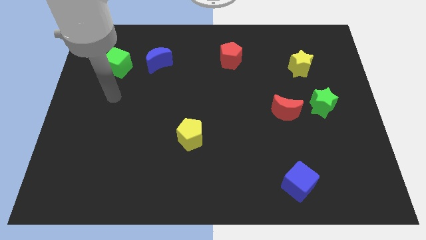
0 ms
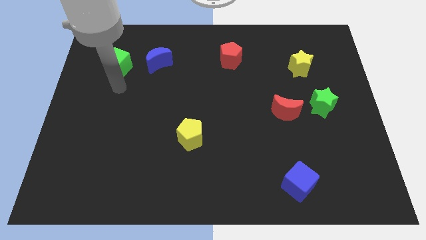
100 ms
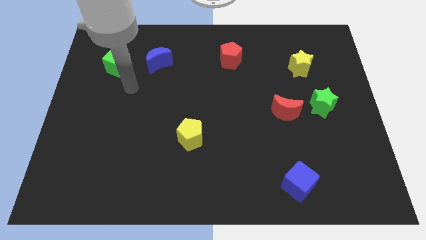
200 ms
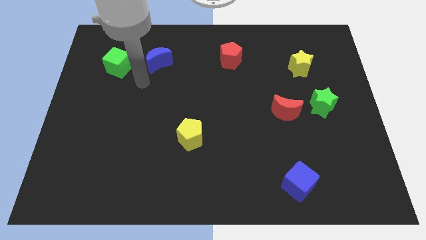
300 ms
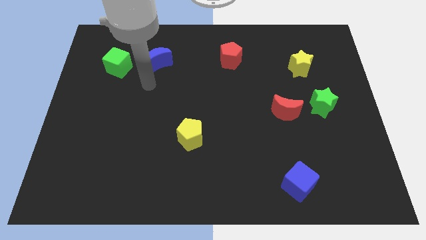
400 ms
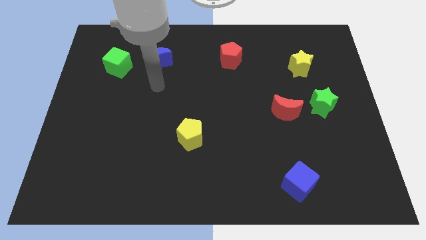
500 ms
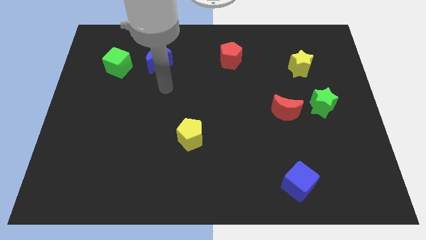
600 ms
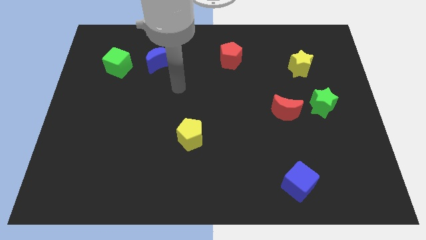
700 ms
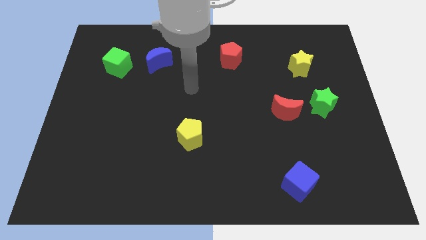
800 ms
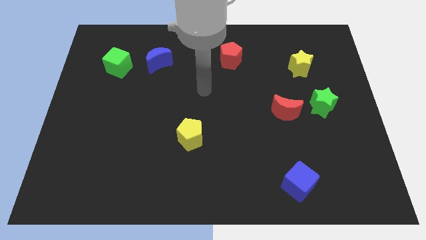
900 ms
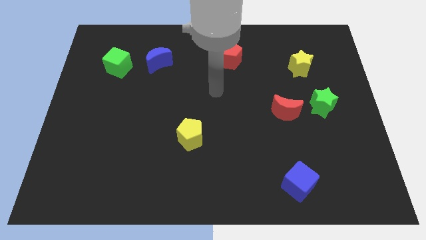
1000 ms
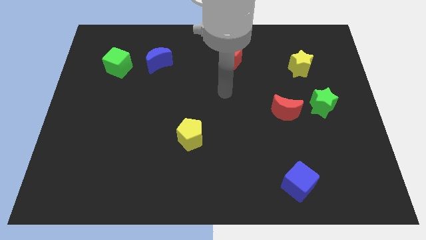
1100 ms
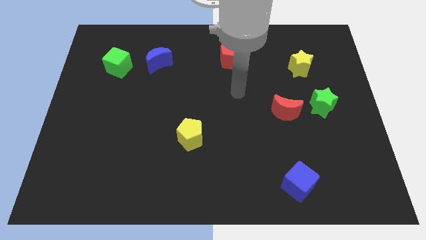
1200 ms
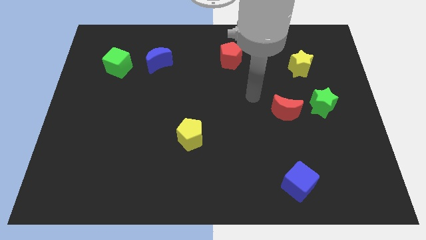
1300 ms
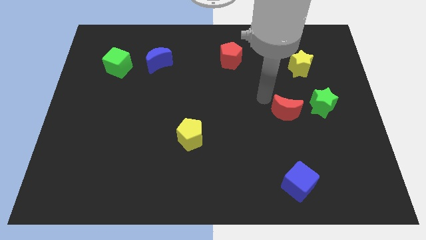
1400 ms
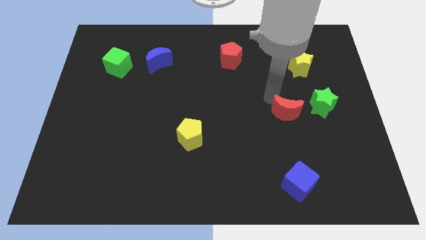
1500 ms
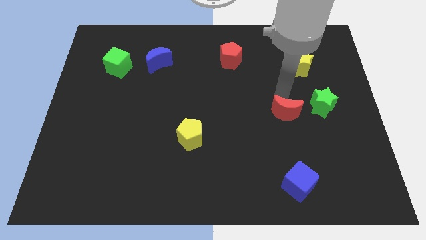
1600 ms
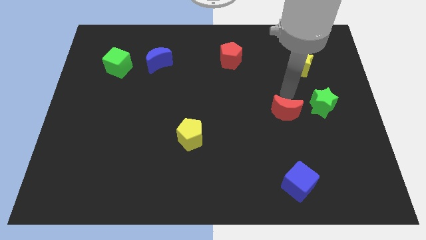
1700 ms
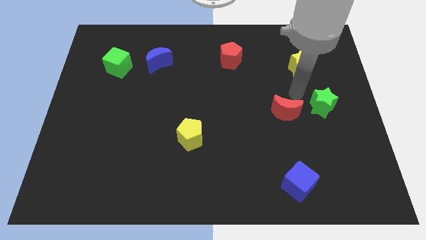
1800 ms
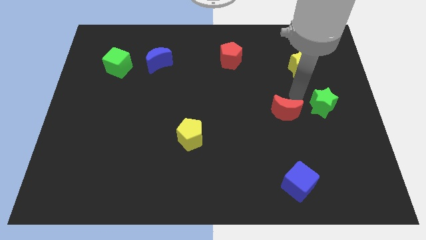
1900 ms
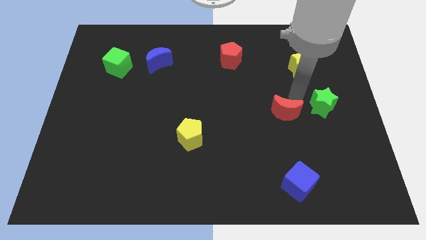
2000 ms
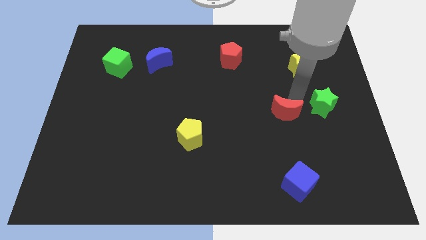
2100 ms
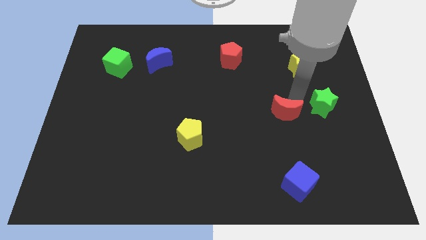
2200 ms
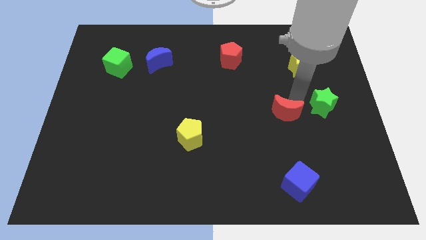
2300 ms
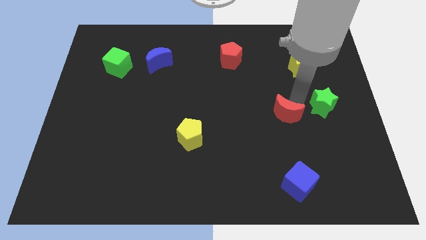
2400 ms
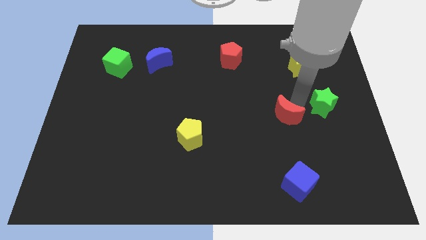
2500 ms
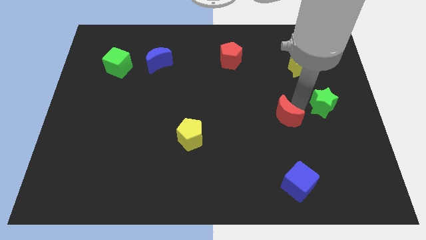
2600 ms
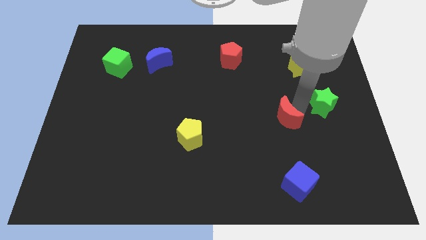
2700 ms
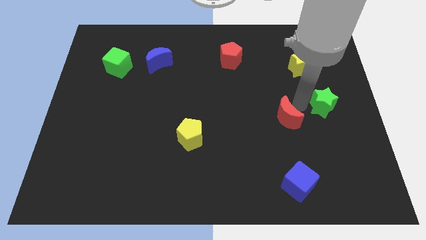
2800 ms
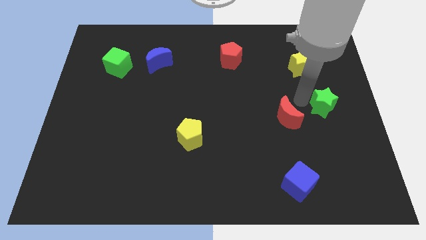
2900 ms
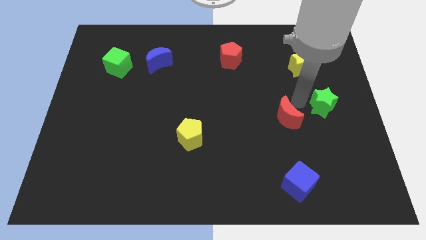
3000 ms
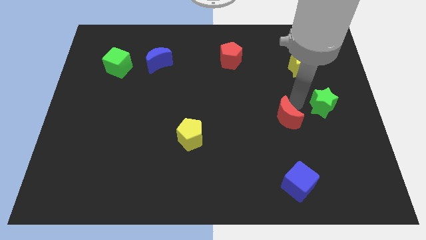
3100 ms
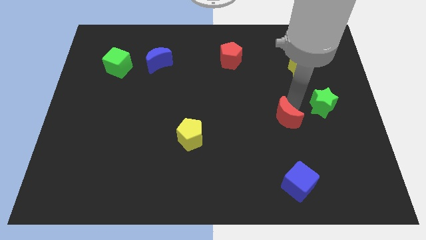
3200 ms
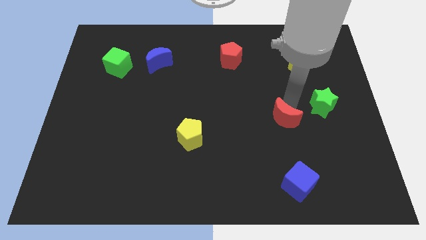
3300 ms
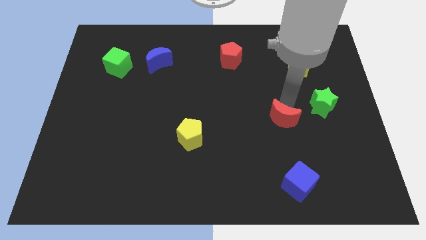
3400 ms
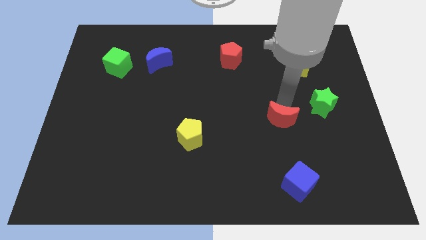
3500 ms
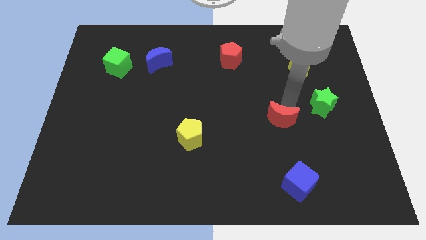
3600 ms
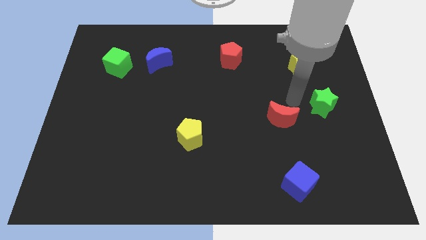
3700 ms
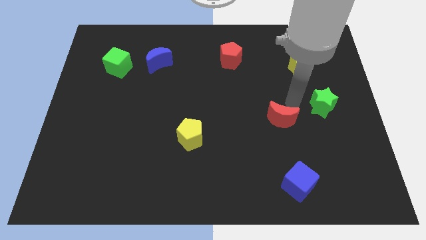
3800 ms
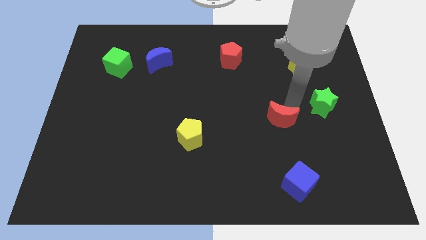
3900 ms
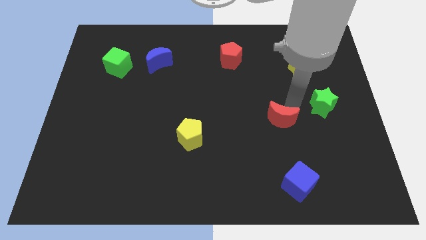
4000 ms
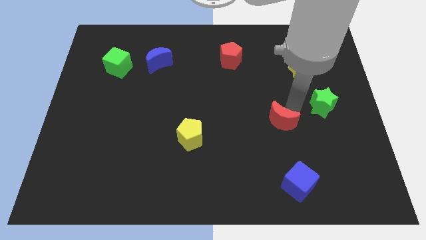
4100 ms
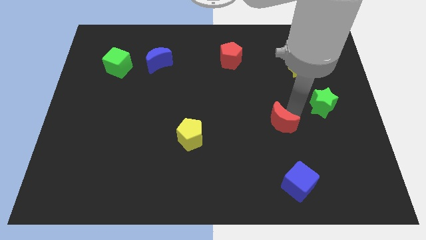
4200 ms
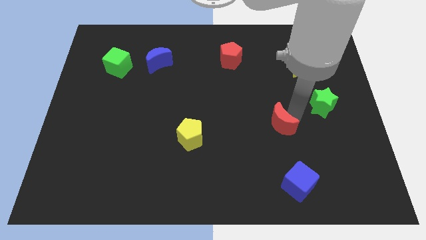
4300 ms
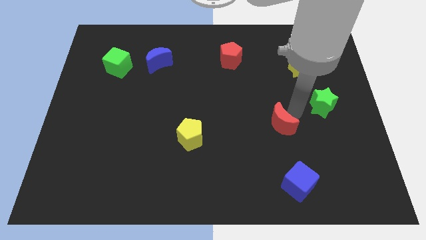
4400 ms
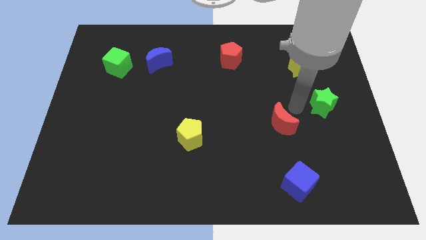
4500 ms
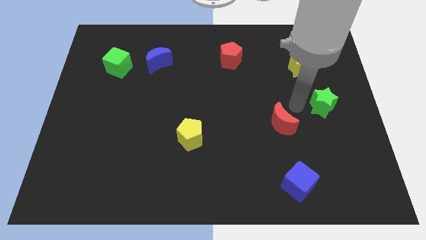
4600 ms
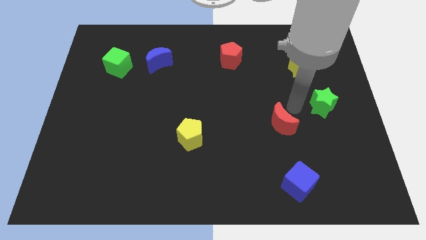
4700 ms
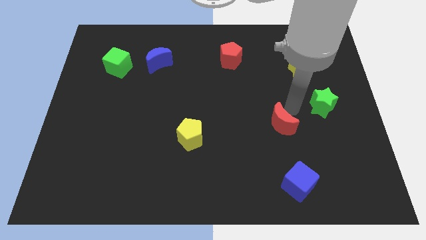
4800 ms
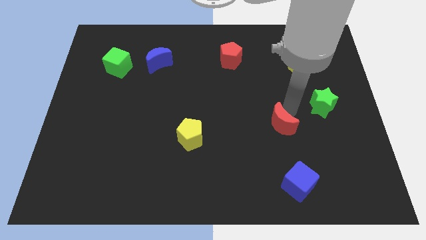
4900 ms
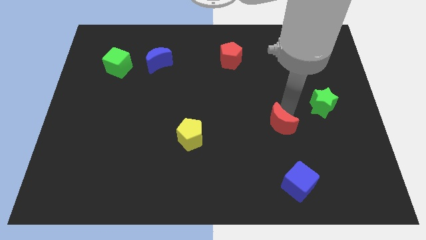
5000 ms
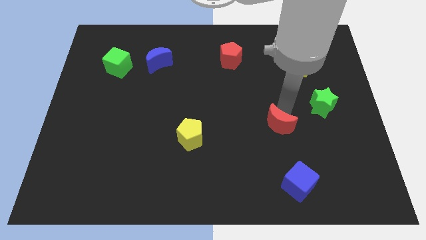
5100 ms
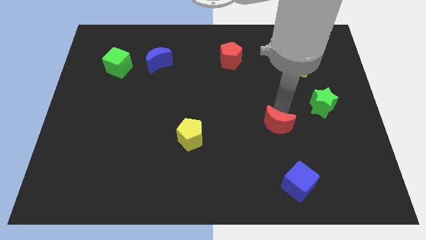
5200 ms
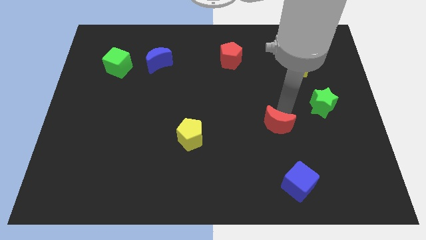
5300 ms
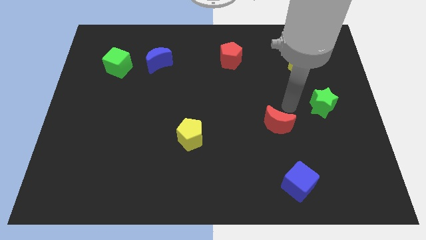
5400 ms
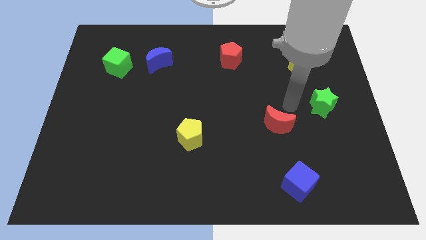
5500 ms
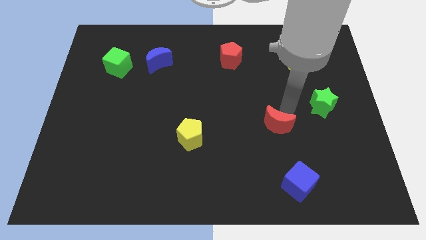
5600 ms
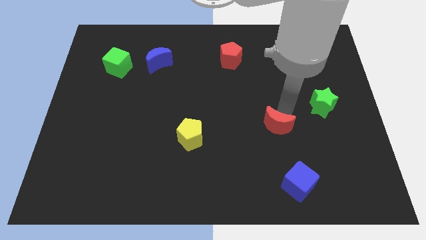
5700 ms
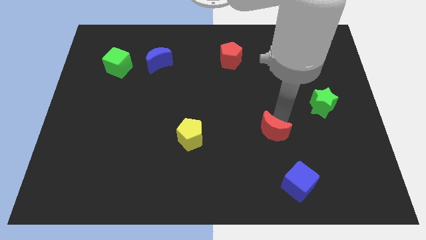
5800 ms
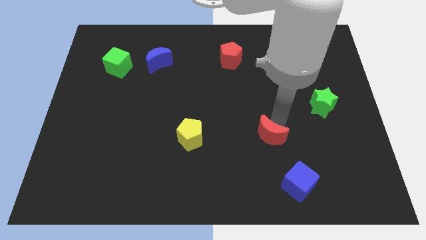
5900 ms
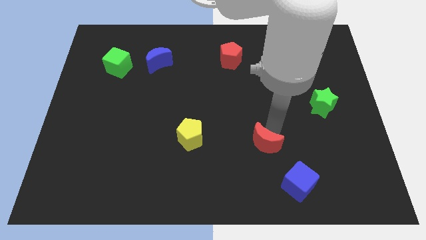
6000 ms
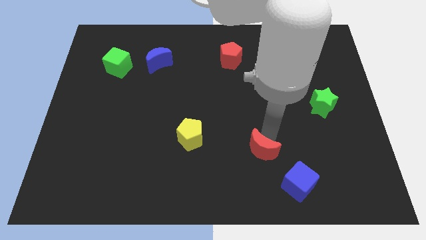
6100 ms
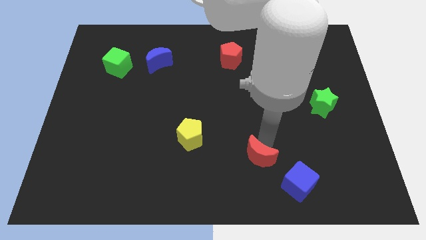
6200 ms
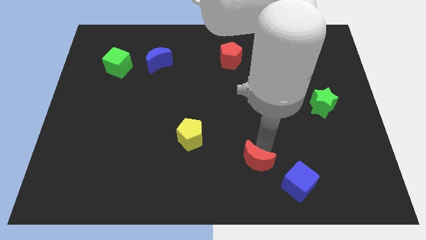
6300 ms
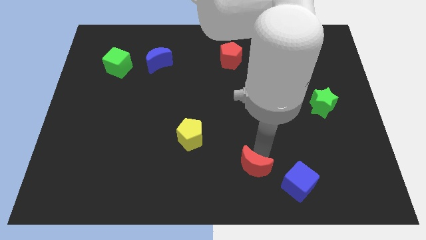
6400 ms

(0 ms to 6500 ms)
move the red moon to the bottom

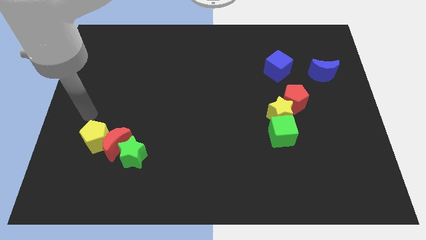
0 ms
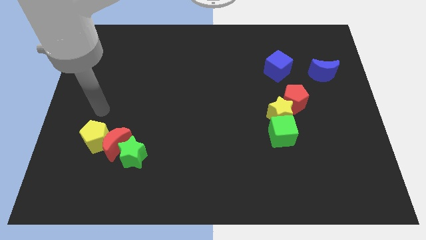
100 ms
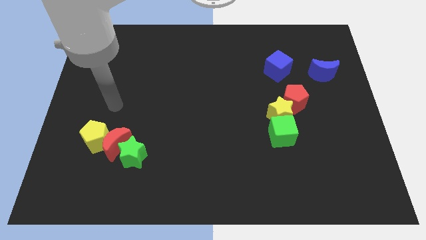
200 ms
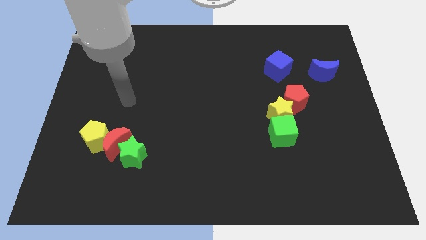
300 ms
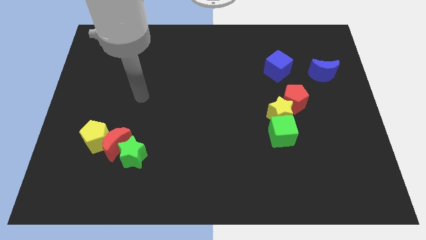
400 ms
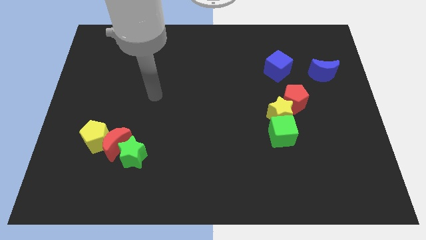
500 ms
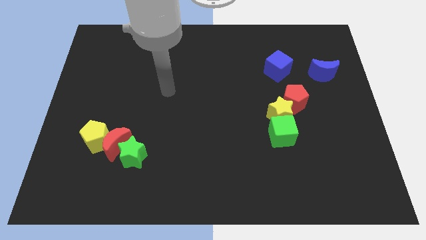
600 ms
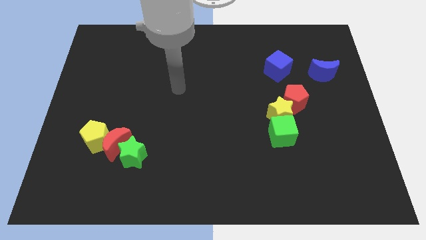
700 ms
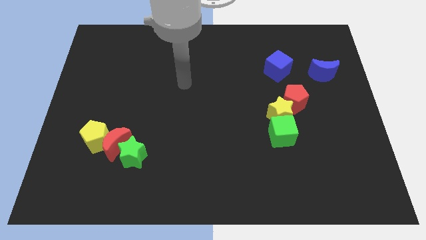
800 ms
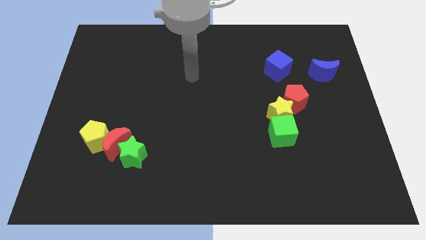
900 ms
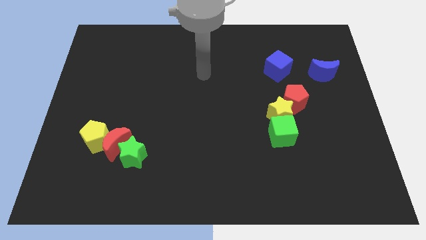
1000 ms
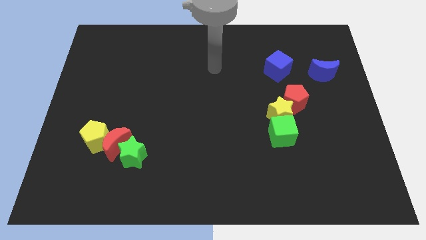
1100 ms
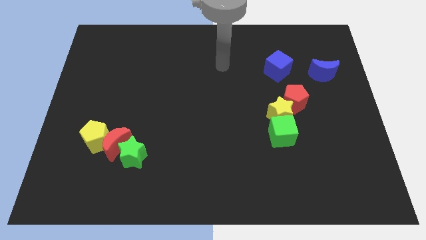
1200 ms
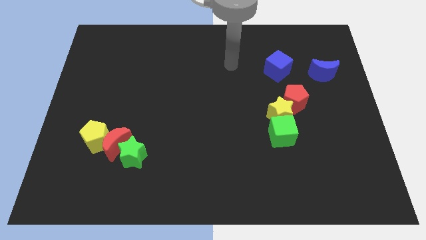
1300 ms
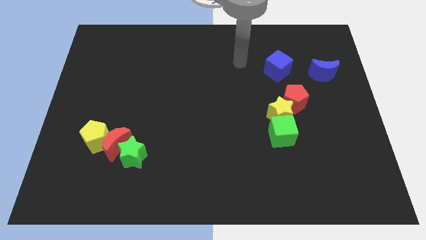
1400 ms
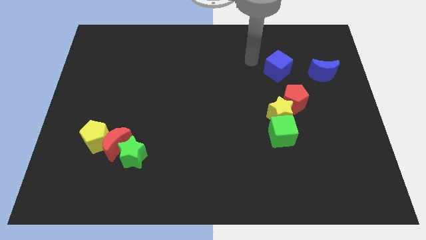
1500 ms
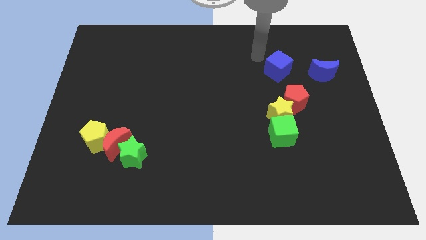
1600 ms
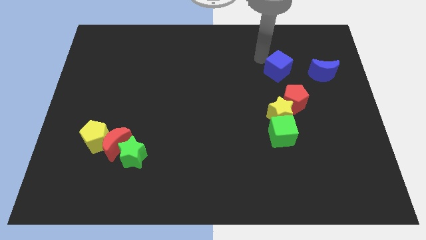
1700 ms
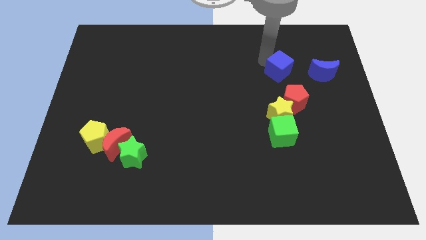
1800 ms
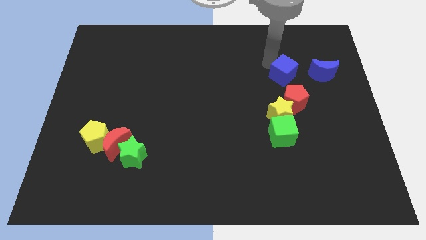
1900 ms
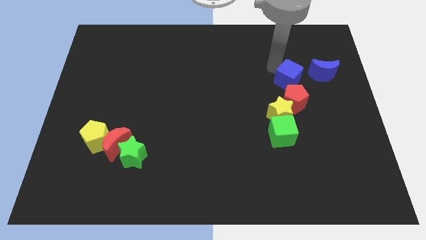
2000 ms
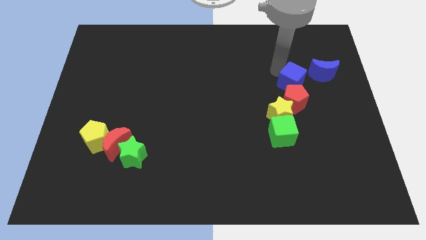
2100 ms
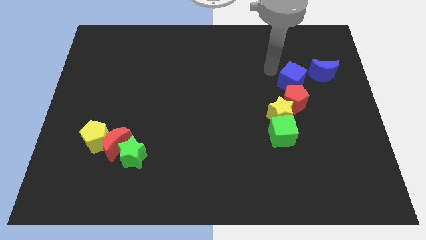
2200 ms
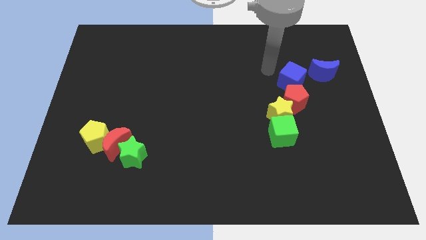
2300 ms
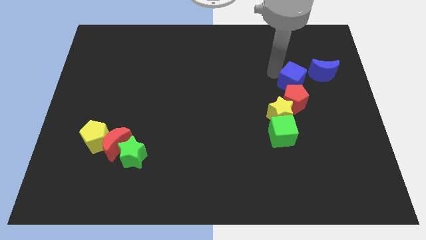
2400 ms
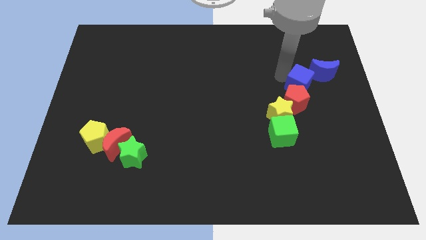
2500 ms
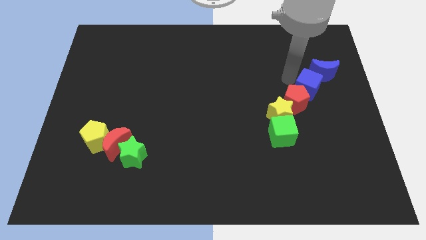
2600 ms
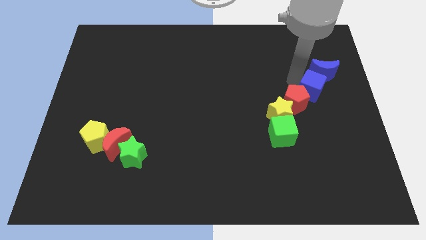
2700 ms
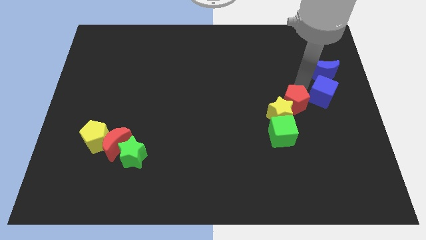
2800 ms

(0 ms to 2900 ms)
slide the blue cube to the right side
